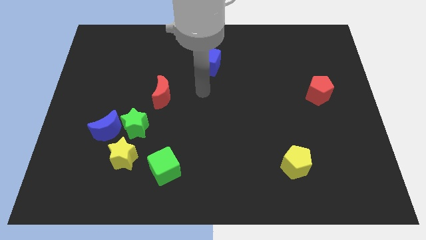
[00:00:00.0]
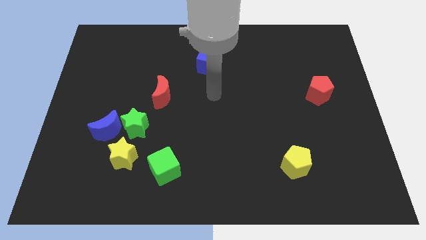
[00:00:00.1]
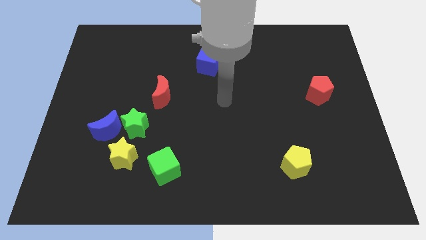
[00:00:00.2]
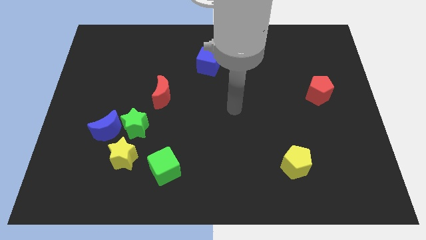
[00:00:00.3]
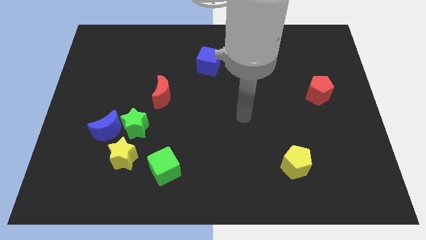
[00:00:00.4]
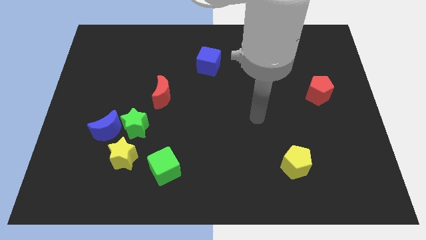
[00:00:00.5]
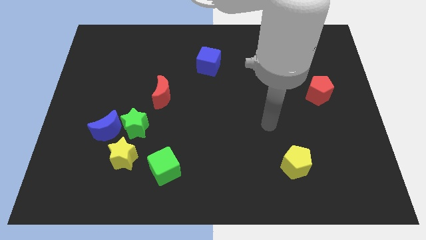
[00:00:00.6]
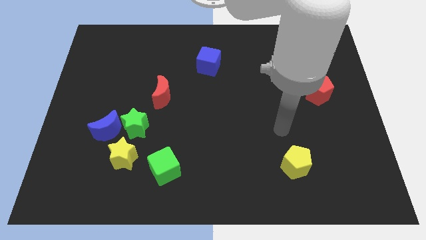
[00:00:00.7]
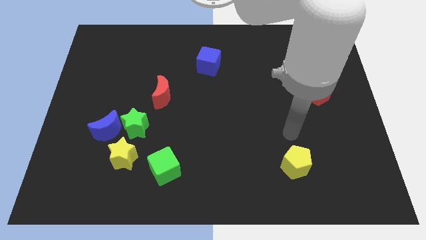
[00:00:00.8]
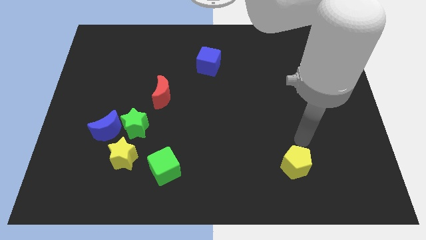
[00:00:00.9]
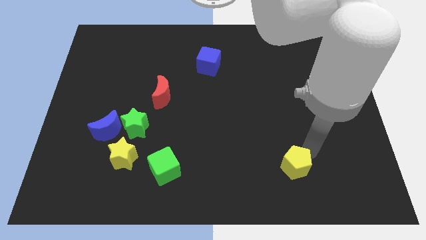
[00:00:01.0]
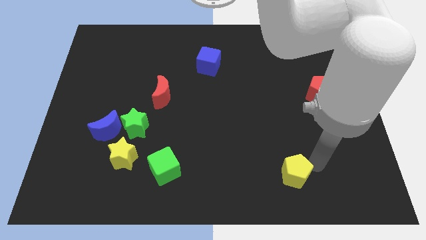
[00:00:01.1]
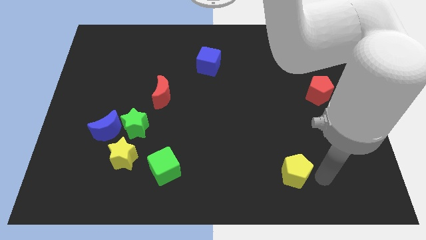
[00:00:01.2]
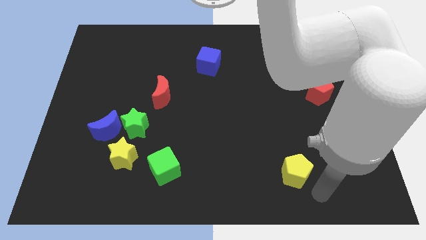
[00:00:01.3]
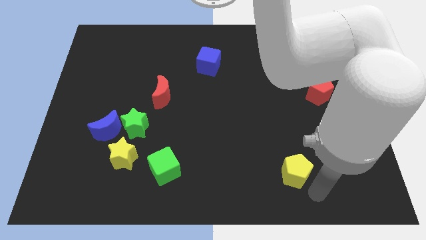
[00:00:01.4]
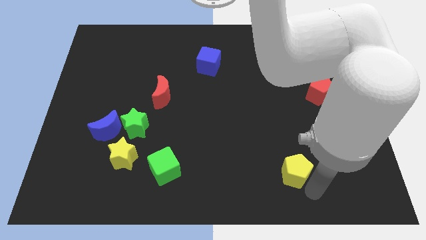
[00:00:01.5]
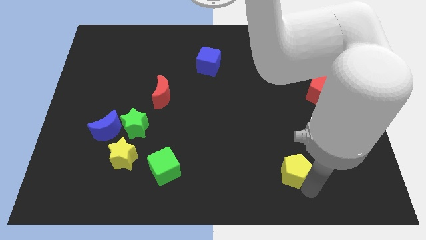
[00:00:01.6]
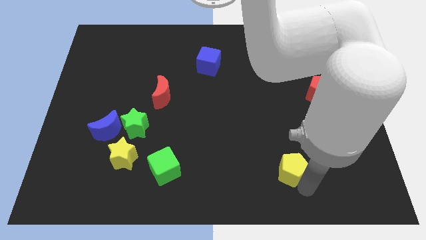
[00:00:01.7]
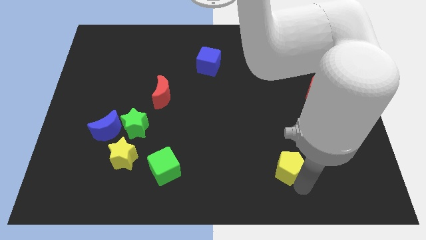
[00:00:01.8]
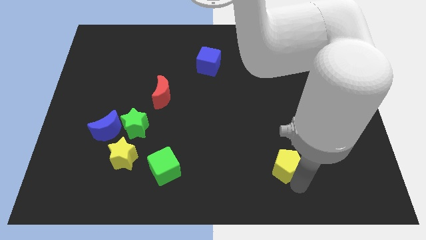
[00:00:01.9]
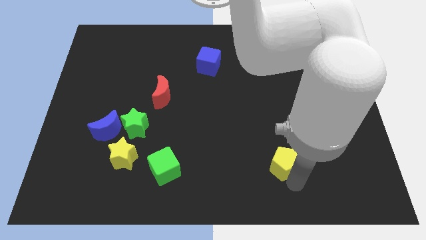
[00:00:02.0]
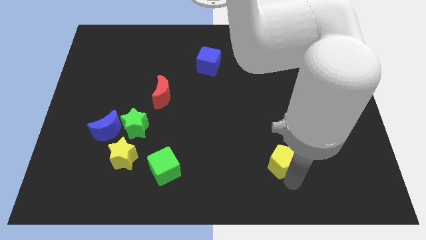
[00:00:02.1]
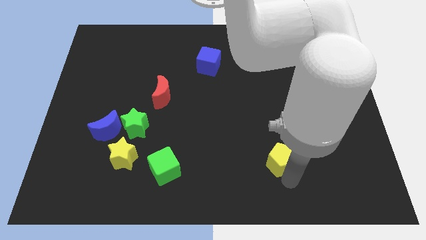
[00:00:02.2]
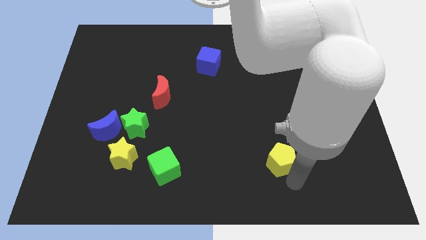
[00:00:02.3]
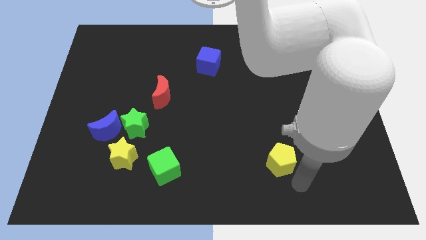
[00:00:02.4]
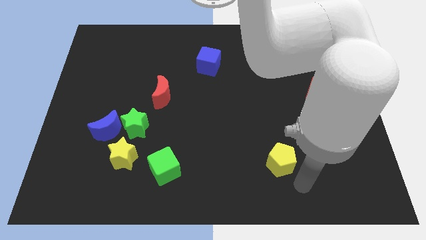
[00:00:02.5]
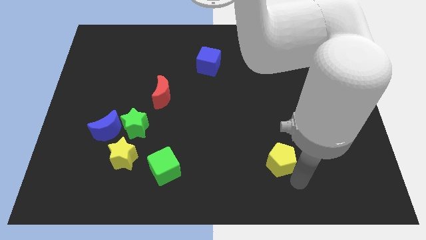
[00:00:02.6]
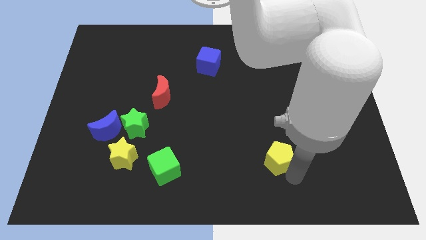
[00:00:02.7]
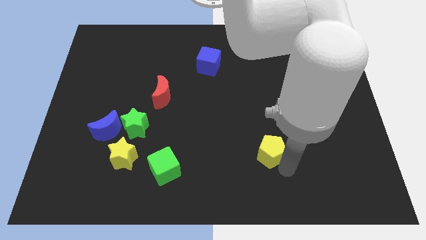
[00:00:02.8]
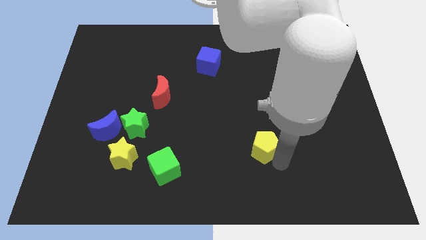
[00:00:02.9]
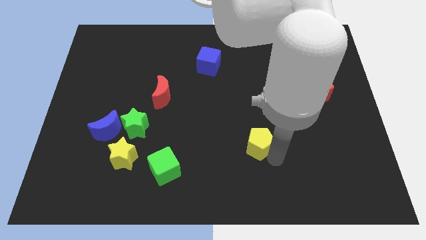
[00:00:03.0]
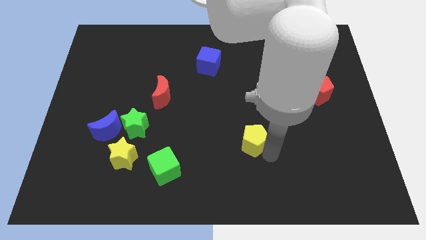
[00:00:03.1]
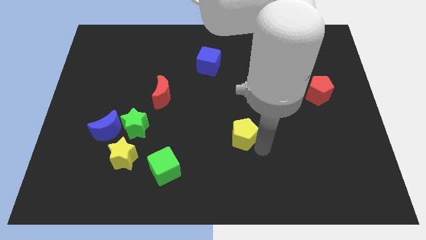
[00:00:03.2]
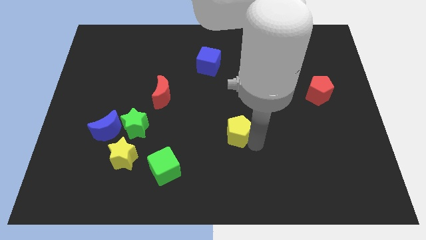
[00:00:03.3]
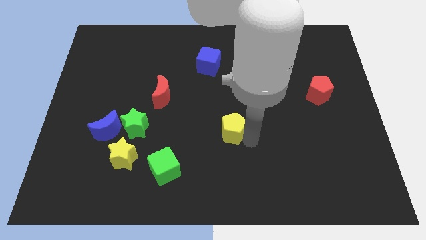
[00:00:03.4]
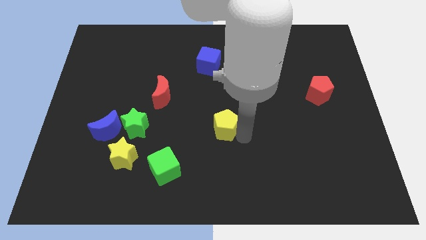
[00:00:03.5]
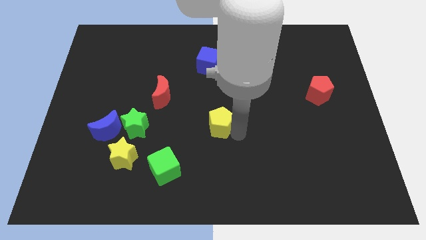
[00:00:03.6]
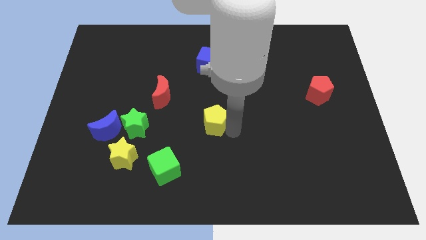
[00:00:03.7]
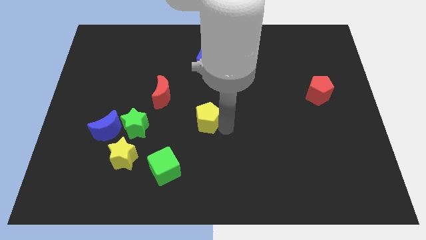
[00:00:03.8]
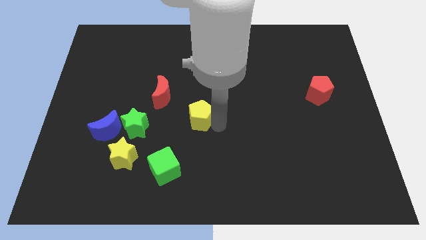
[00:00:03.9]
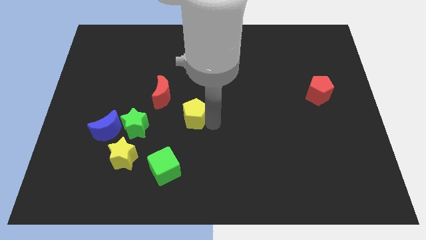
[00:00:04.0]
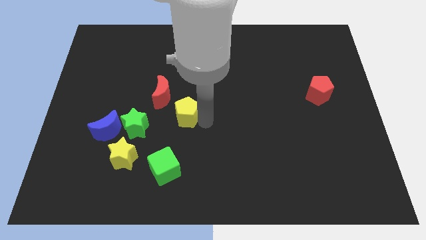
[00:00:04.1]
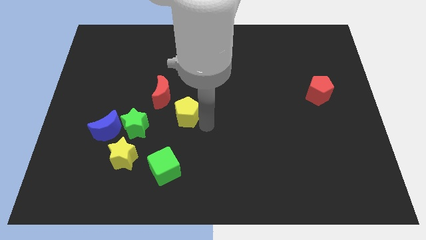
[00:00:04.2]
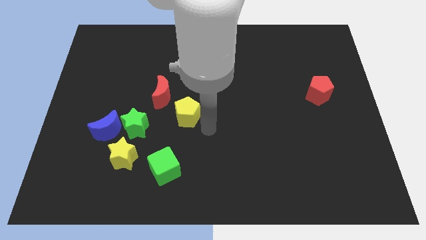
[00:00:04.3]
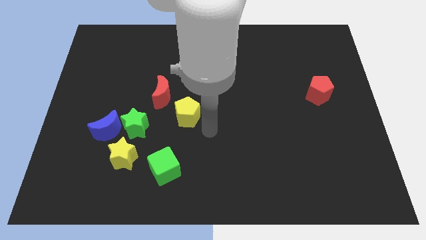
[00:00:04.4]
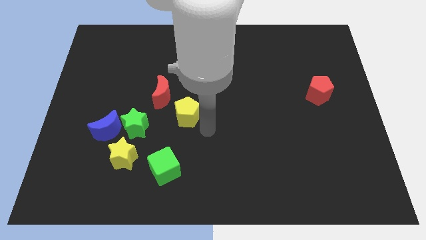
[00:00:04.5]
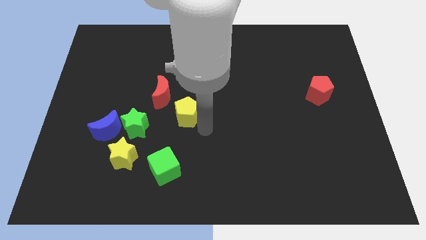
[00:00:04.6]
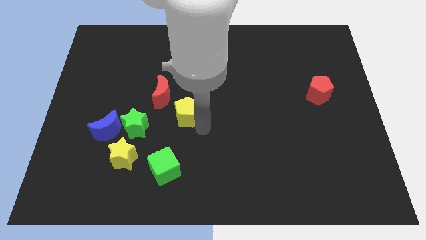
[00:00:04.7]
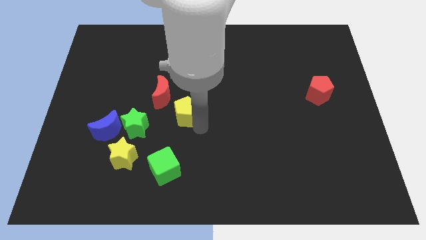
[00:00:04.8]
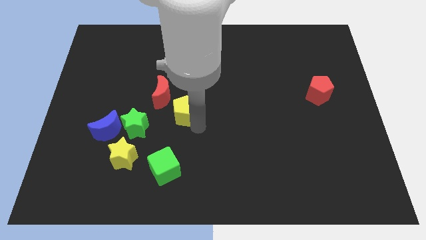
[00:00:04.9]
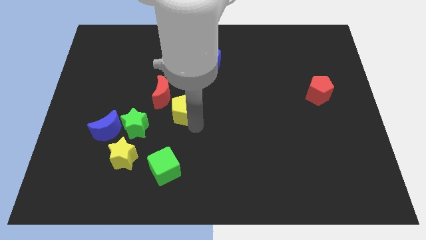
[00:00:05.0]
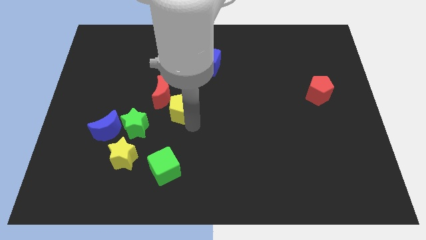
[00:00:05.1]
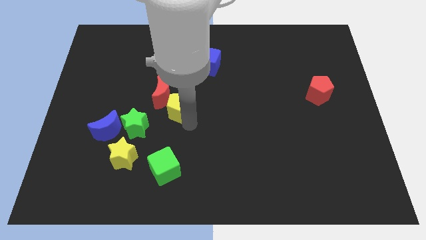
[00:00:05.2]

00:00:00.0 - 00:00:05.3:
put the yellow pentagon close to the red moon

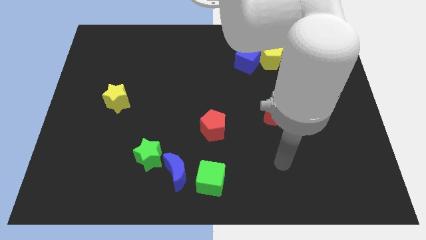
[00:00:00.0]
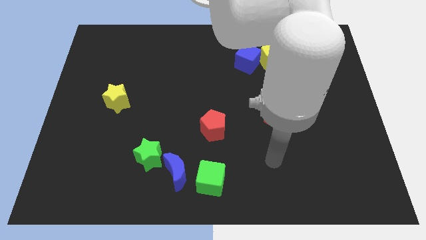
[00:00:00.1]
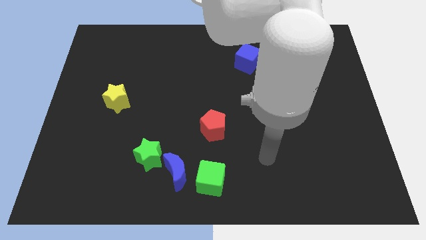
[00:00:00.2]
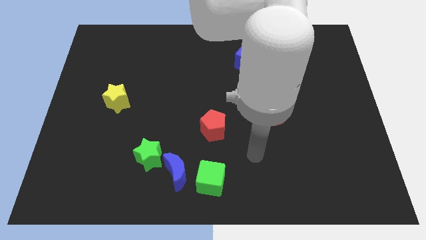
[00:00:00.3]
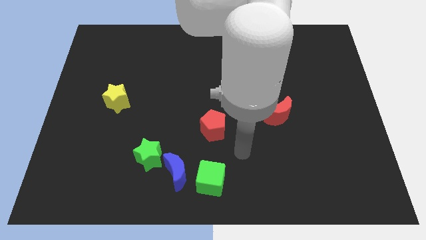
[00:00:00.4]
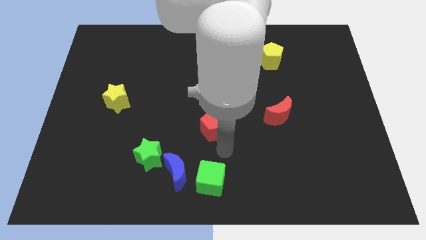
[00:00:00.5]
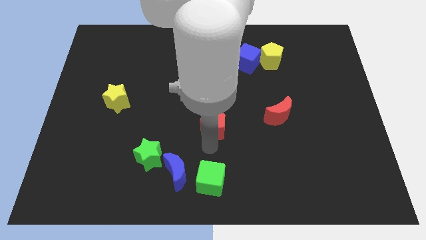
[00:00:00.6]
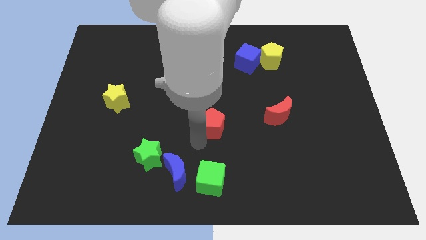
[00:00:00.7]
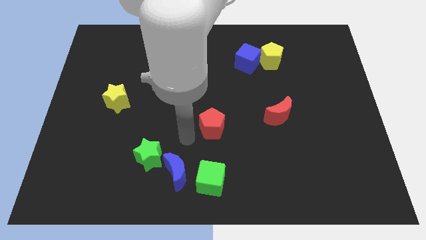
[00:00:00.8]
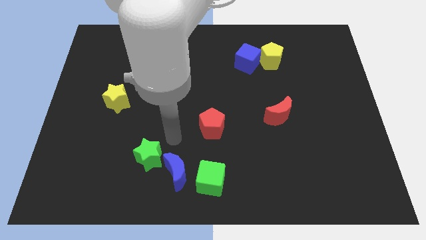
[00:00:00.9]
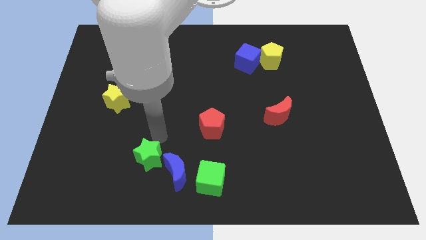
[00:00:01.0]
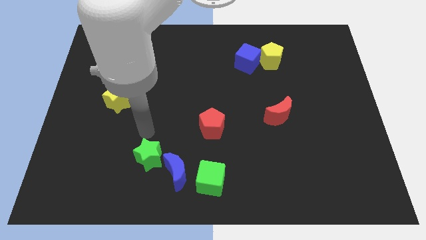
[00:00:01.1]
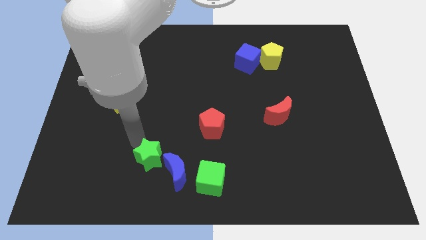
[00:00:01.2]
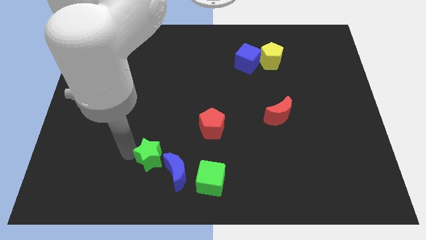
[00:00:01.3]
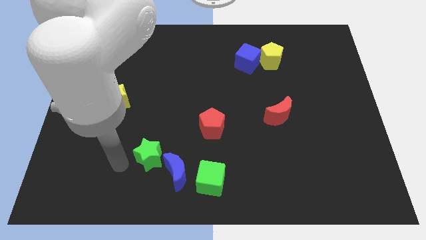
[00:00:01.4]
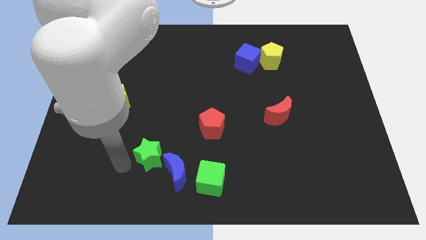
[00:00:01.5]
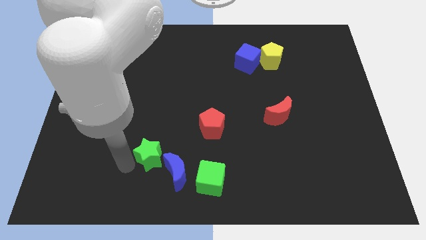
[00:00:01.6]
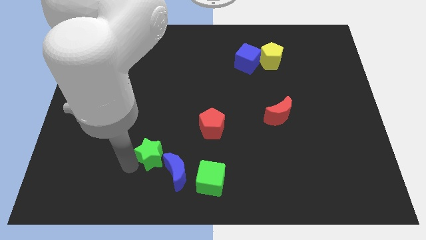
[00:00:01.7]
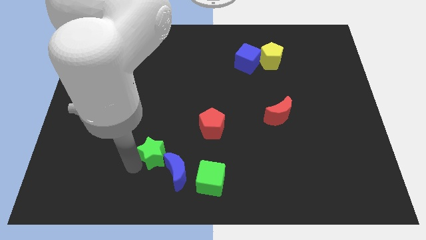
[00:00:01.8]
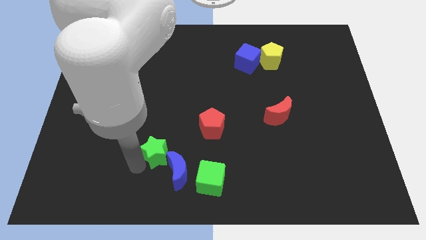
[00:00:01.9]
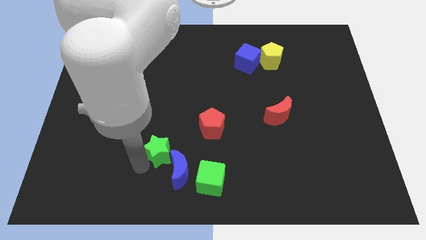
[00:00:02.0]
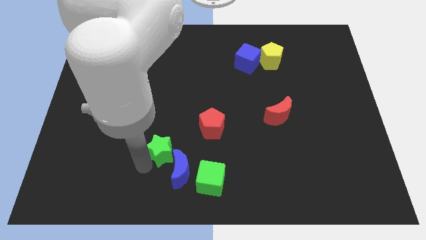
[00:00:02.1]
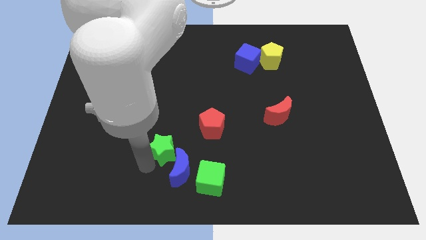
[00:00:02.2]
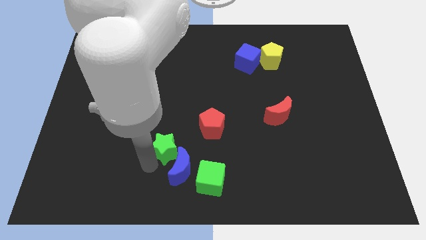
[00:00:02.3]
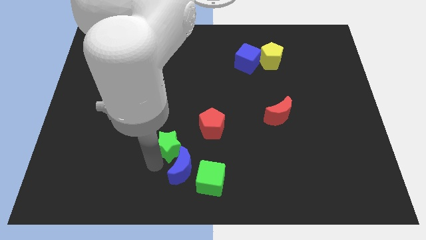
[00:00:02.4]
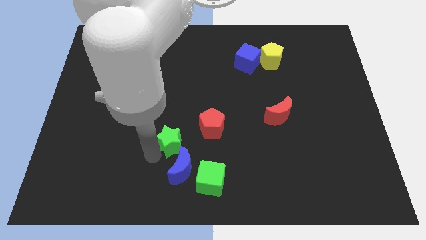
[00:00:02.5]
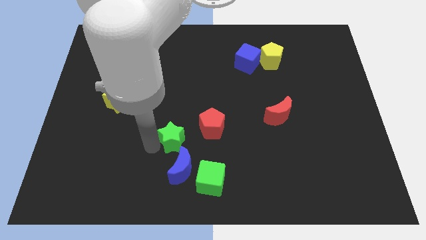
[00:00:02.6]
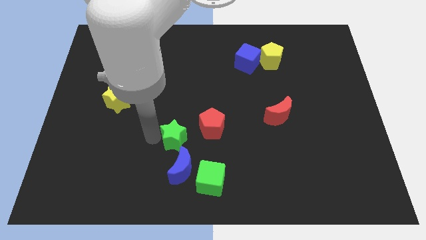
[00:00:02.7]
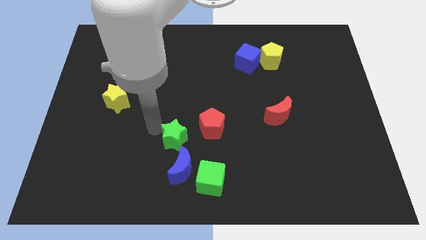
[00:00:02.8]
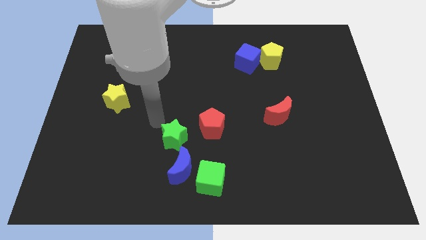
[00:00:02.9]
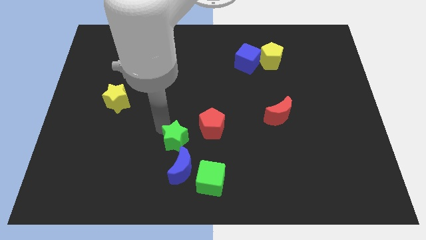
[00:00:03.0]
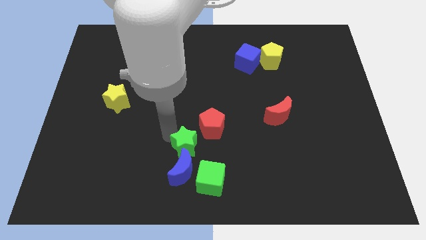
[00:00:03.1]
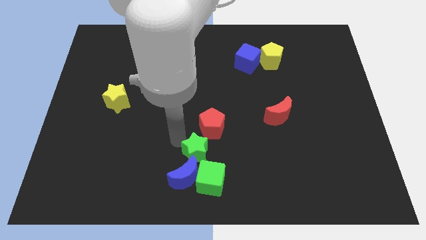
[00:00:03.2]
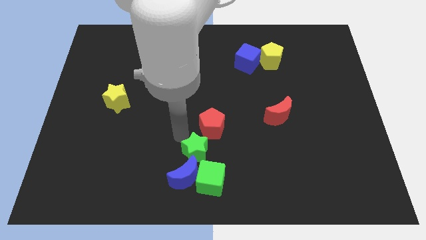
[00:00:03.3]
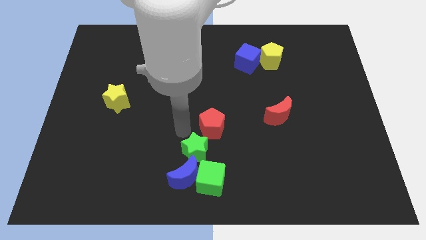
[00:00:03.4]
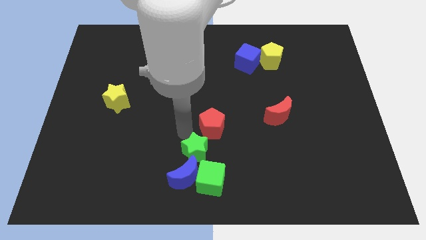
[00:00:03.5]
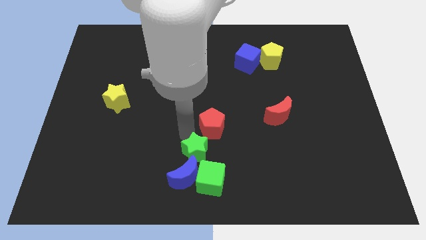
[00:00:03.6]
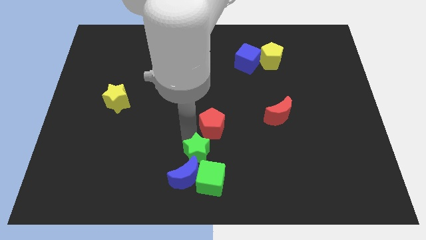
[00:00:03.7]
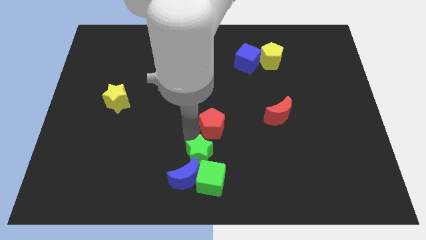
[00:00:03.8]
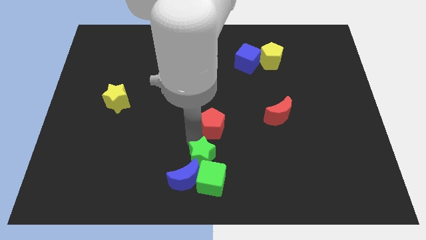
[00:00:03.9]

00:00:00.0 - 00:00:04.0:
slide the green star towards the green cube
